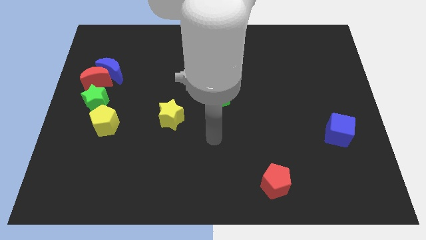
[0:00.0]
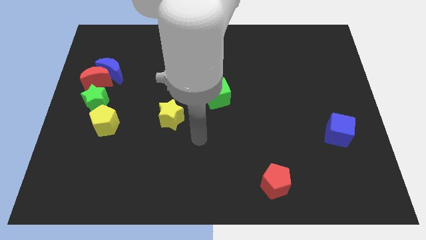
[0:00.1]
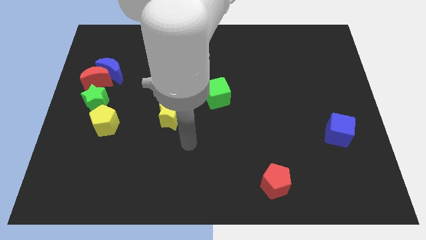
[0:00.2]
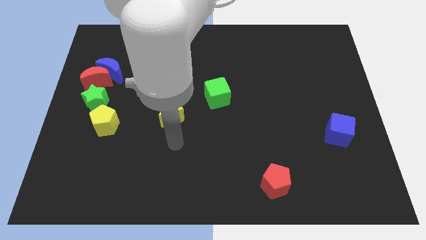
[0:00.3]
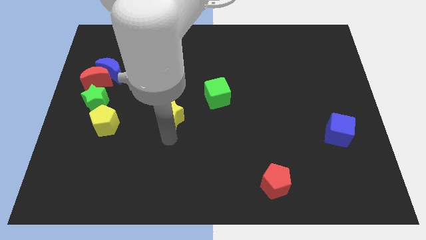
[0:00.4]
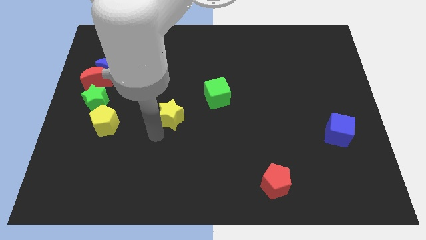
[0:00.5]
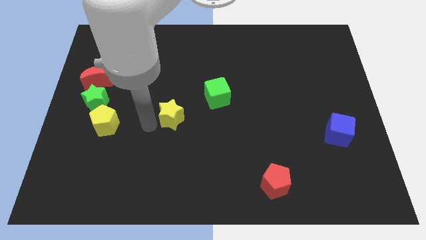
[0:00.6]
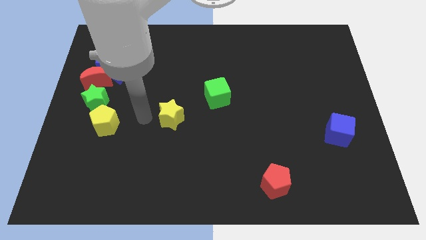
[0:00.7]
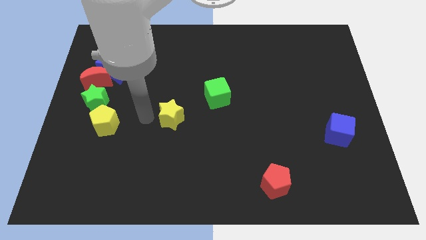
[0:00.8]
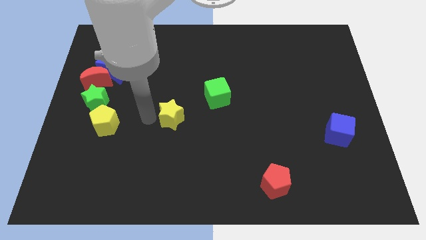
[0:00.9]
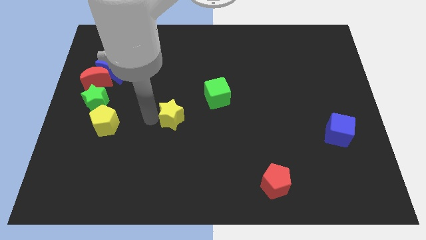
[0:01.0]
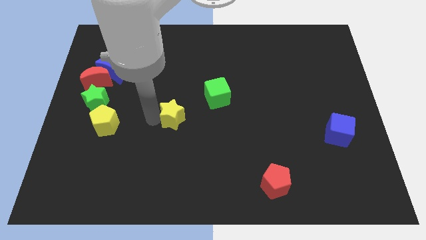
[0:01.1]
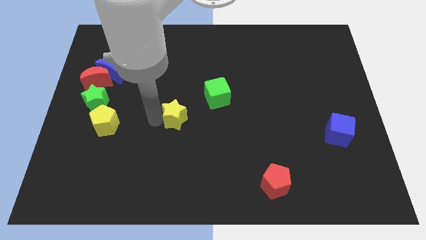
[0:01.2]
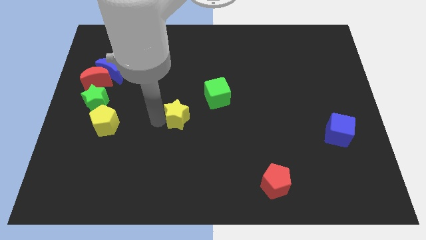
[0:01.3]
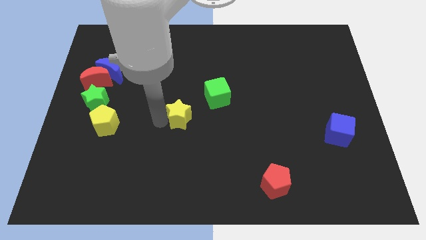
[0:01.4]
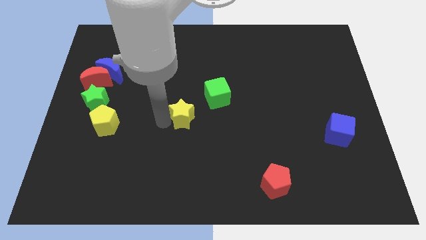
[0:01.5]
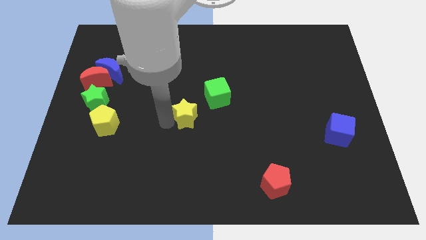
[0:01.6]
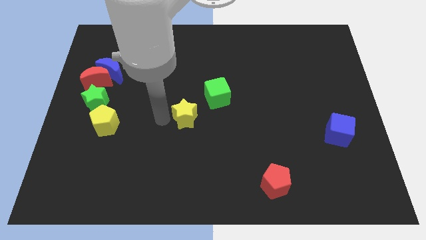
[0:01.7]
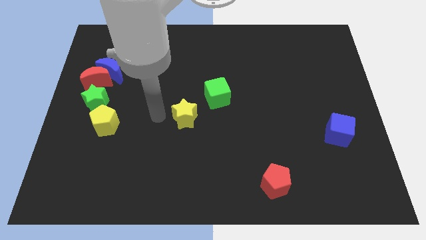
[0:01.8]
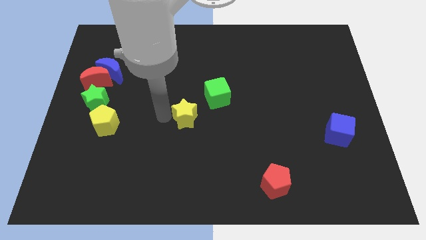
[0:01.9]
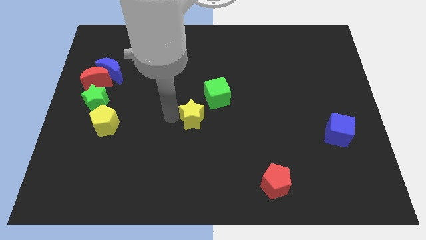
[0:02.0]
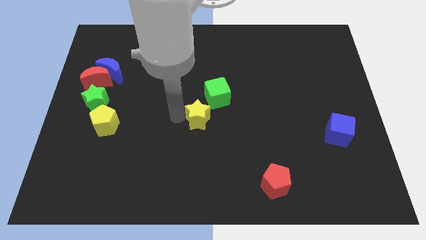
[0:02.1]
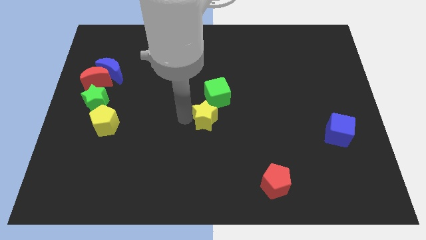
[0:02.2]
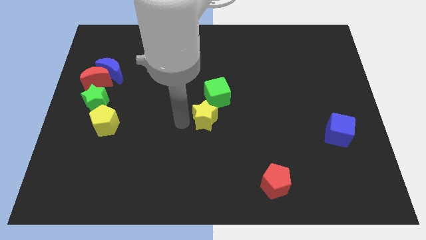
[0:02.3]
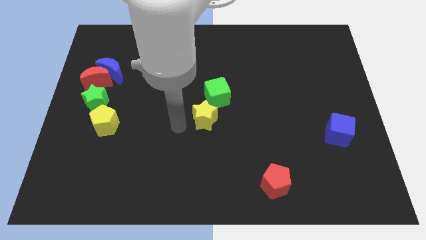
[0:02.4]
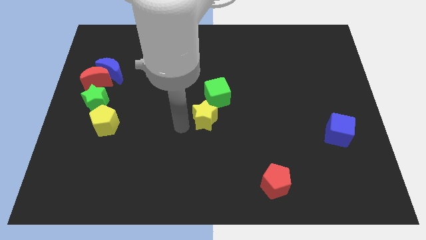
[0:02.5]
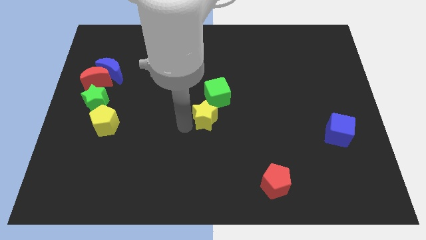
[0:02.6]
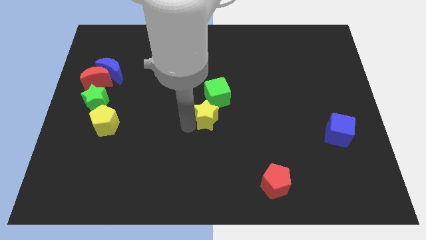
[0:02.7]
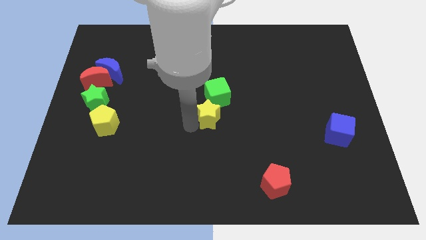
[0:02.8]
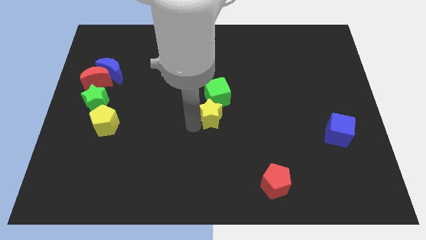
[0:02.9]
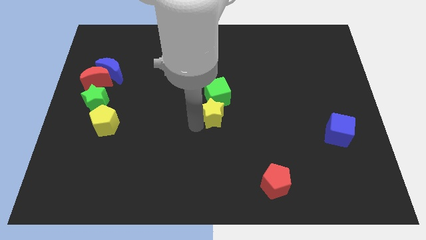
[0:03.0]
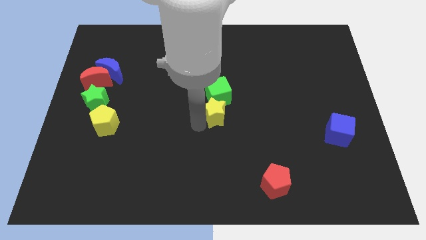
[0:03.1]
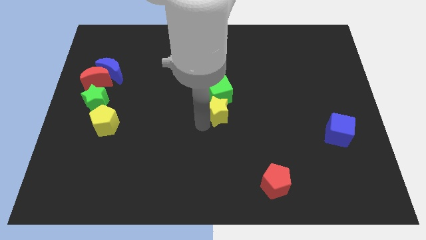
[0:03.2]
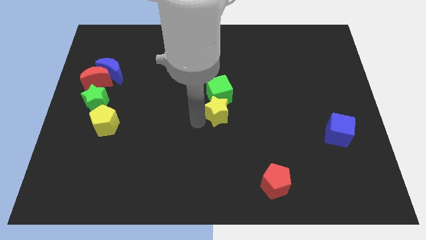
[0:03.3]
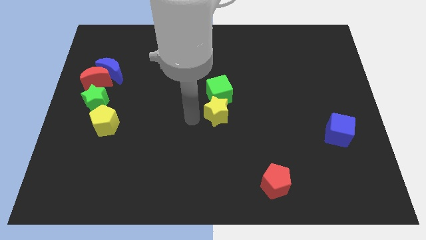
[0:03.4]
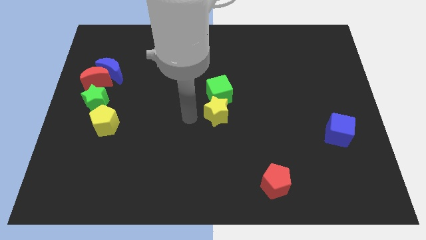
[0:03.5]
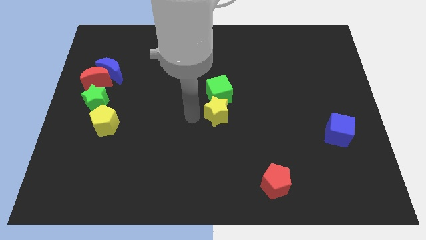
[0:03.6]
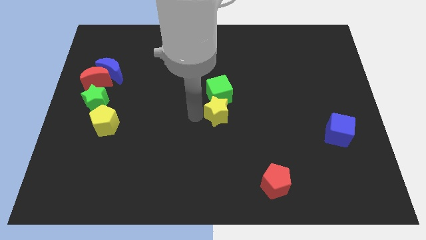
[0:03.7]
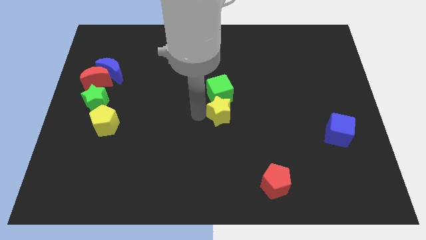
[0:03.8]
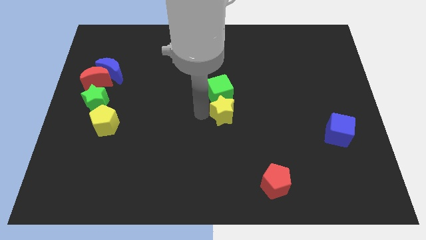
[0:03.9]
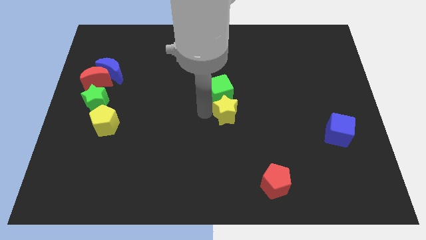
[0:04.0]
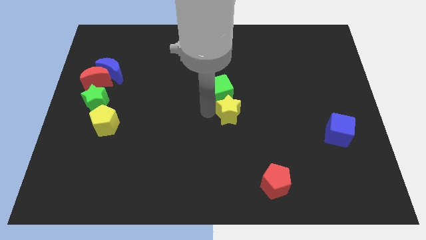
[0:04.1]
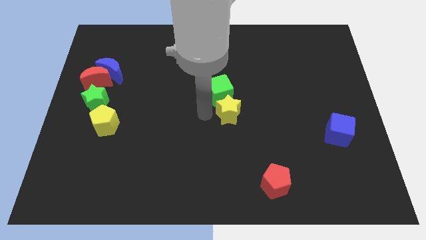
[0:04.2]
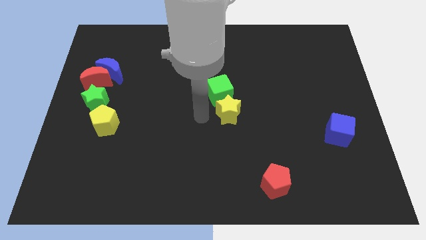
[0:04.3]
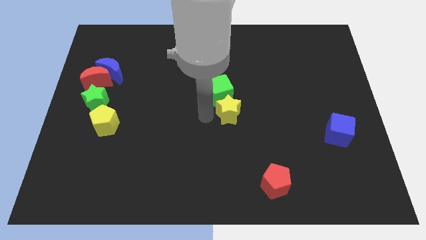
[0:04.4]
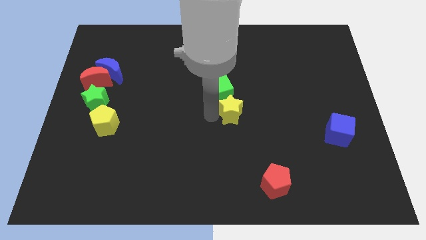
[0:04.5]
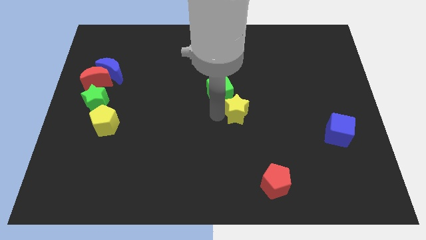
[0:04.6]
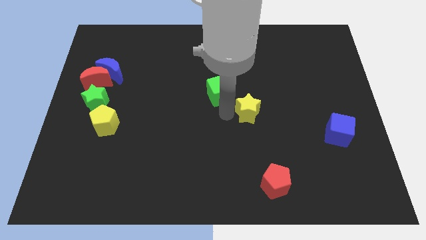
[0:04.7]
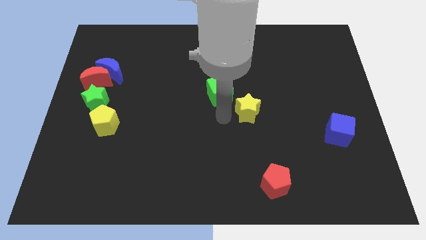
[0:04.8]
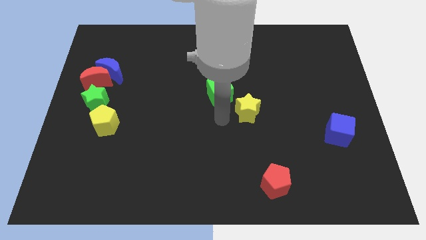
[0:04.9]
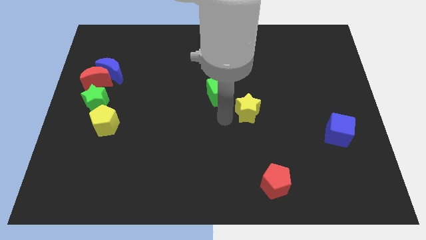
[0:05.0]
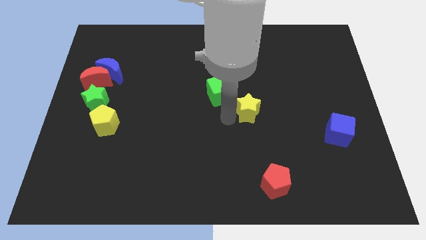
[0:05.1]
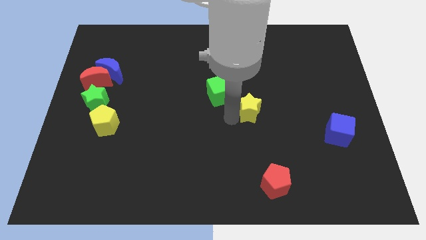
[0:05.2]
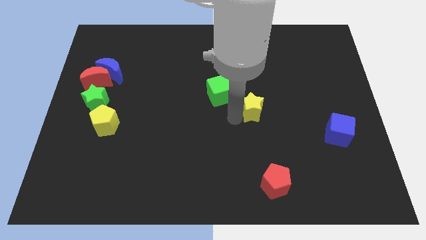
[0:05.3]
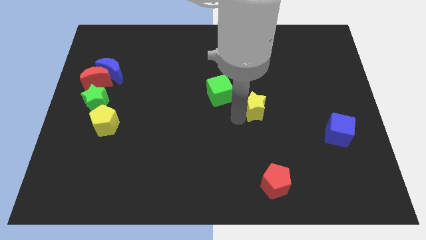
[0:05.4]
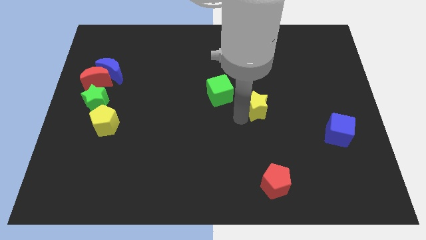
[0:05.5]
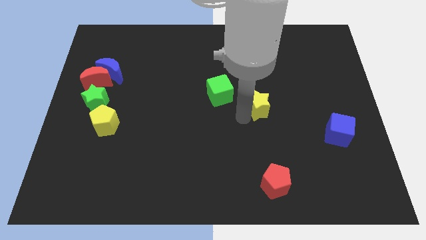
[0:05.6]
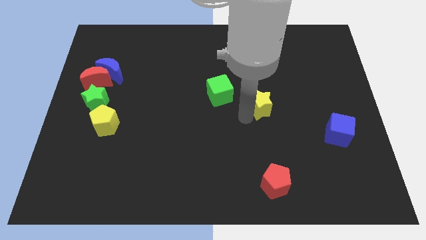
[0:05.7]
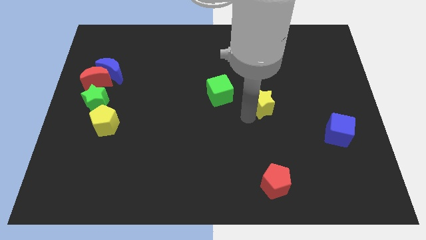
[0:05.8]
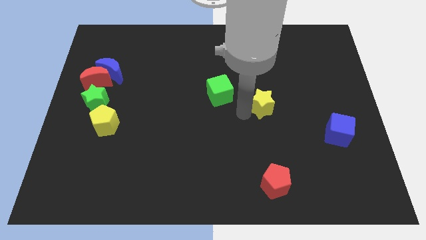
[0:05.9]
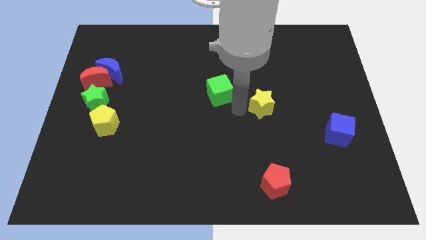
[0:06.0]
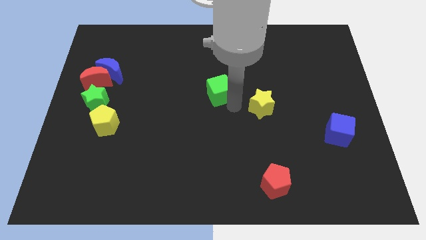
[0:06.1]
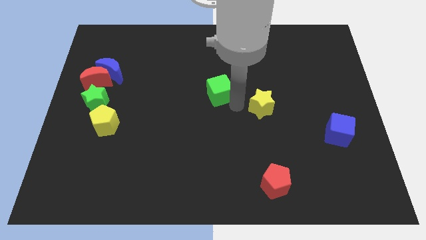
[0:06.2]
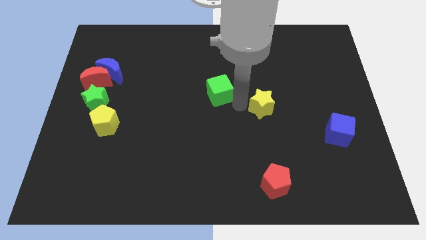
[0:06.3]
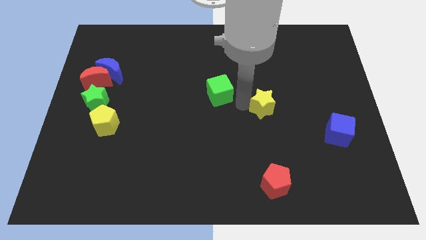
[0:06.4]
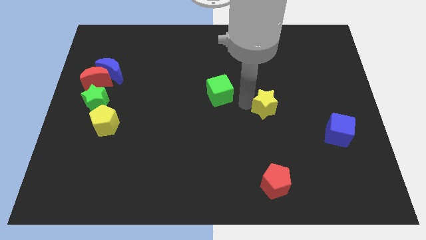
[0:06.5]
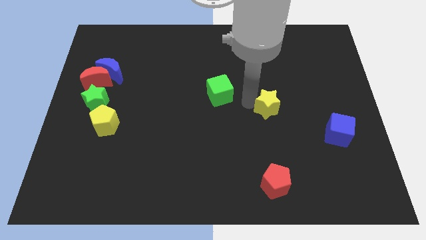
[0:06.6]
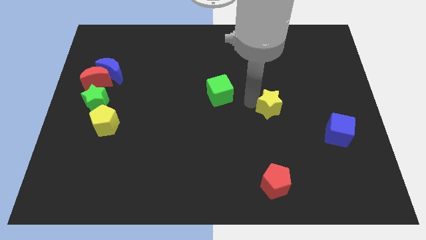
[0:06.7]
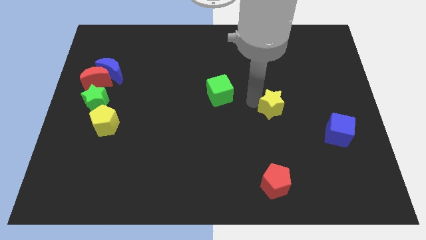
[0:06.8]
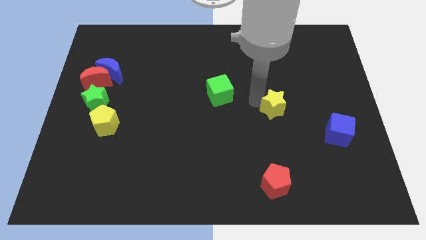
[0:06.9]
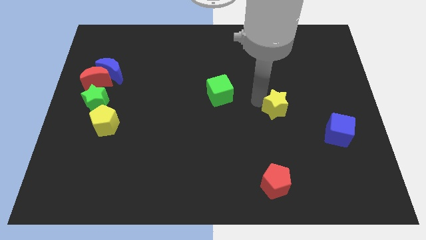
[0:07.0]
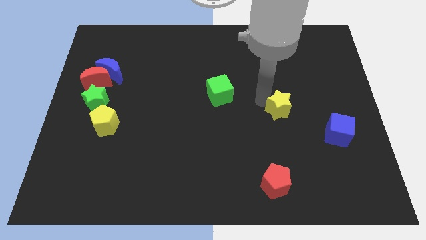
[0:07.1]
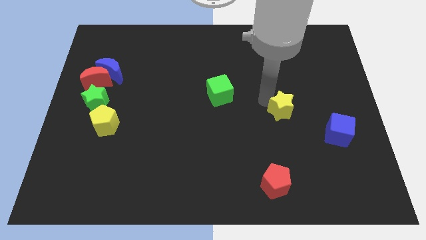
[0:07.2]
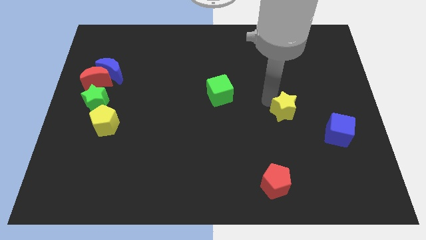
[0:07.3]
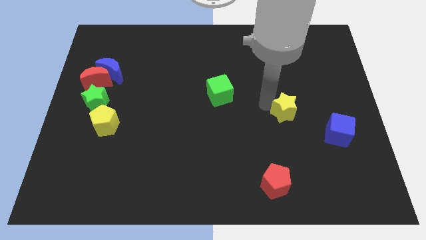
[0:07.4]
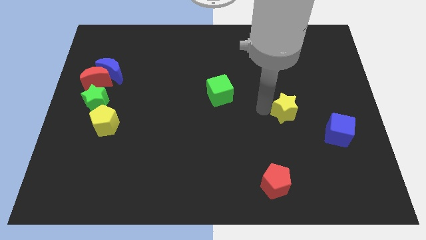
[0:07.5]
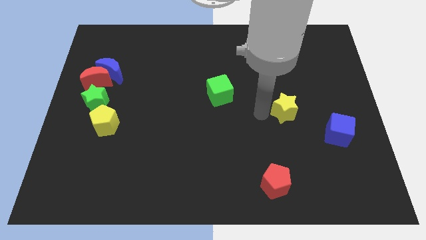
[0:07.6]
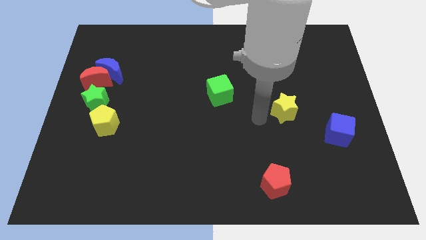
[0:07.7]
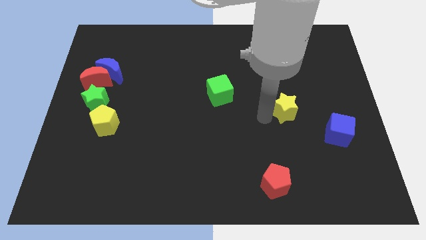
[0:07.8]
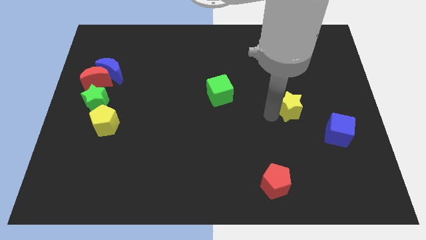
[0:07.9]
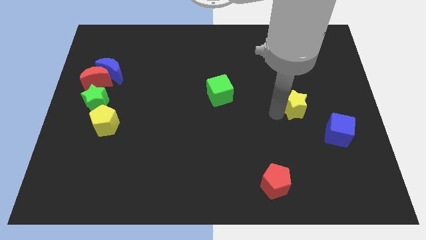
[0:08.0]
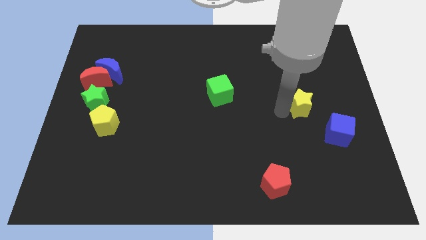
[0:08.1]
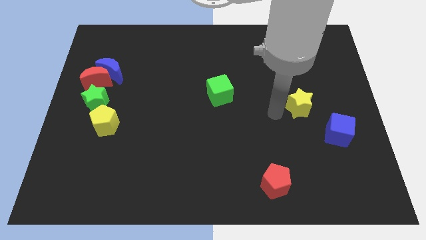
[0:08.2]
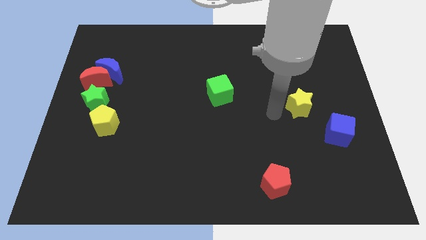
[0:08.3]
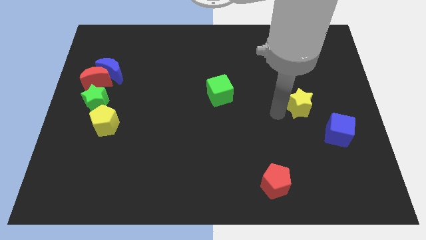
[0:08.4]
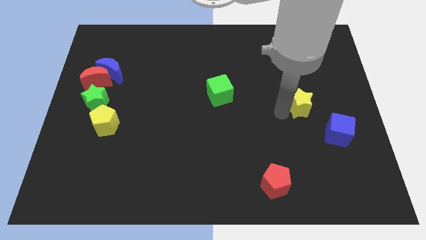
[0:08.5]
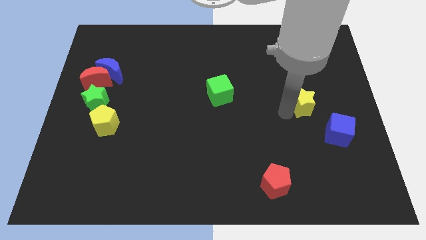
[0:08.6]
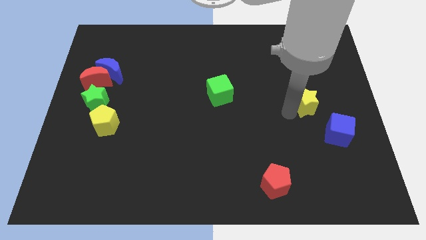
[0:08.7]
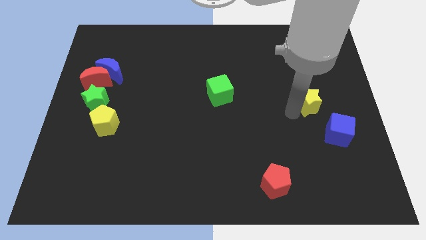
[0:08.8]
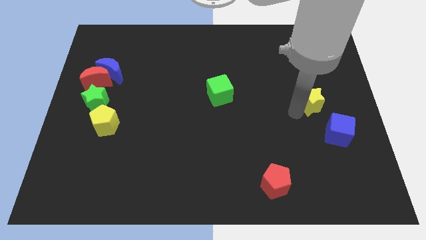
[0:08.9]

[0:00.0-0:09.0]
move the yellow star above the blue cube
